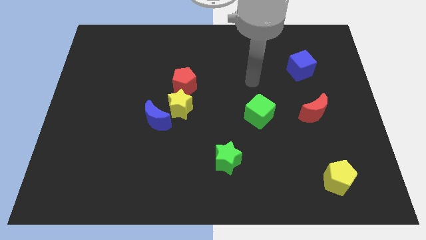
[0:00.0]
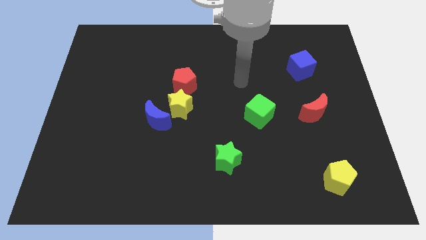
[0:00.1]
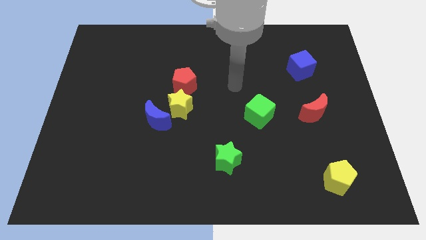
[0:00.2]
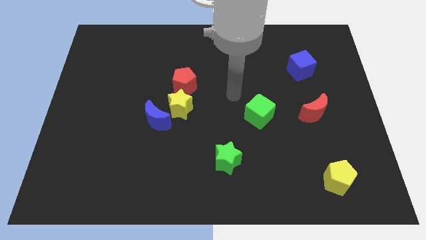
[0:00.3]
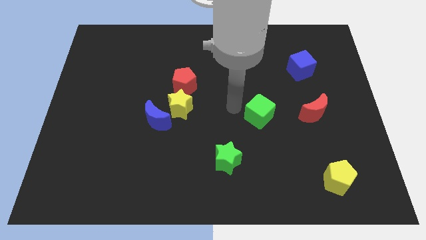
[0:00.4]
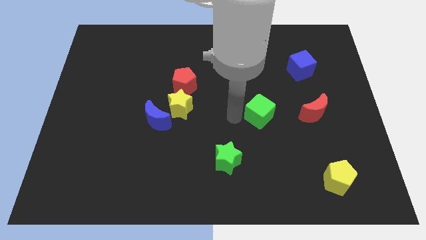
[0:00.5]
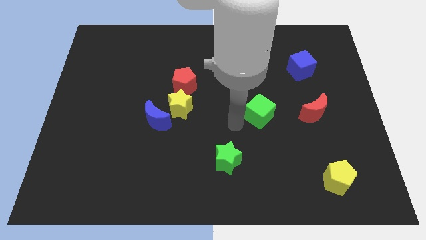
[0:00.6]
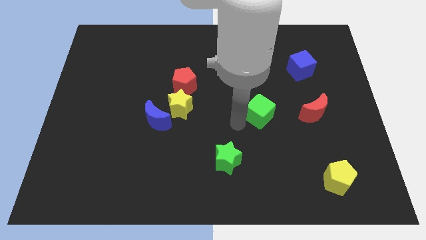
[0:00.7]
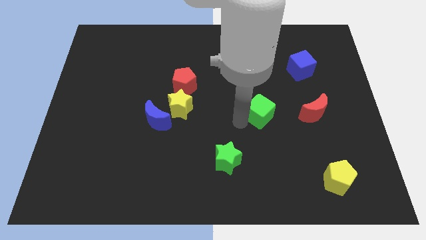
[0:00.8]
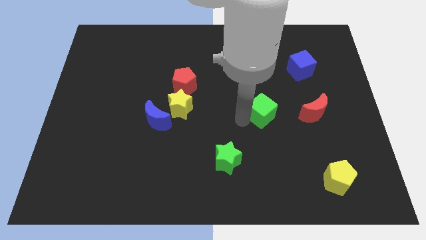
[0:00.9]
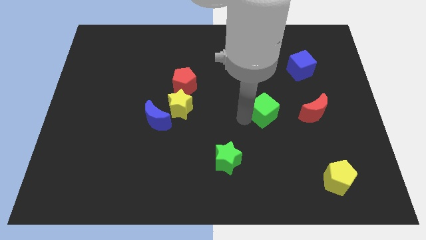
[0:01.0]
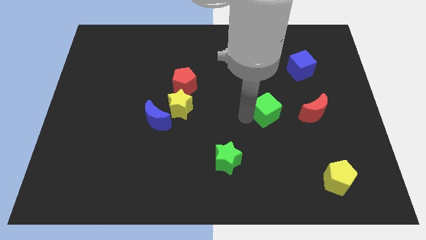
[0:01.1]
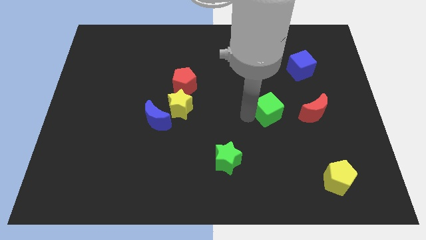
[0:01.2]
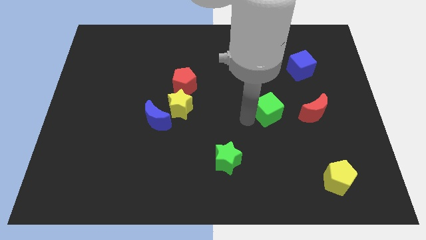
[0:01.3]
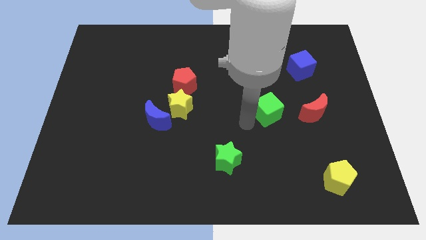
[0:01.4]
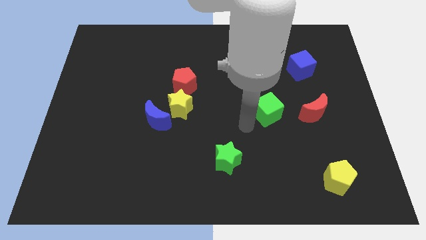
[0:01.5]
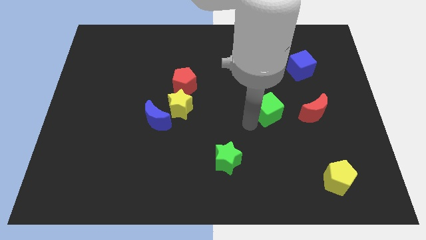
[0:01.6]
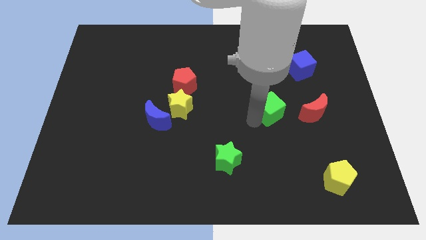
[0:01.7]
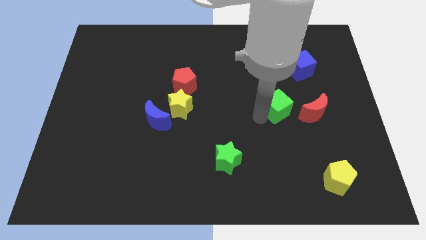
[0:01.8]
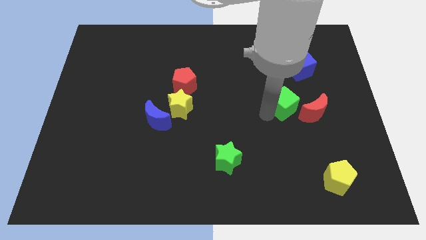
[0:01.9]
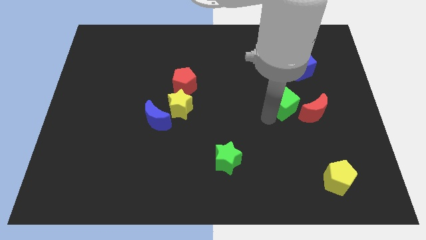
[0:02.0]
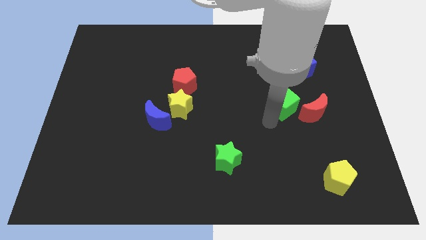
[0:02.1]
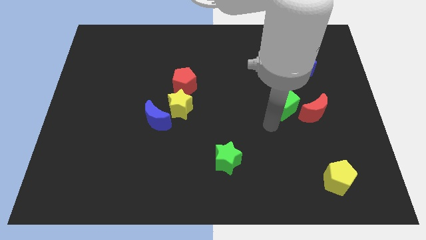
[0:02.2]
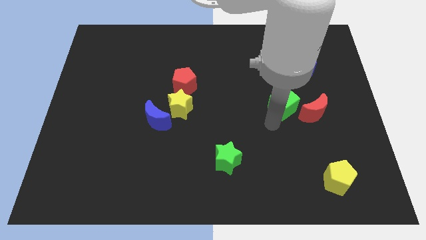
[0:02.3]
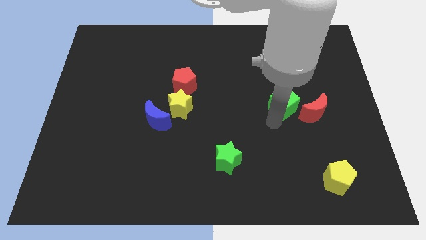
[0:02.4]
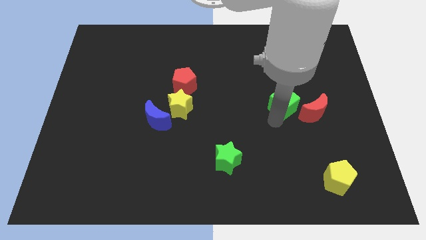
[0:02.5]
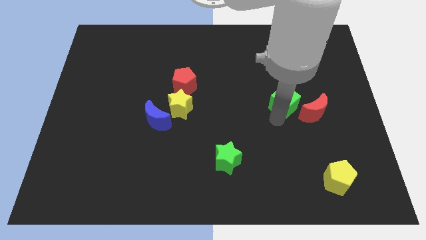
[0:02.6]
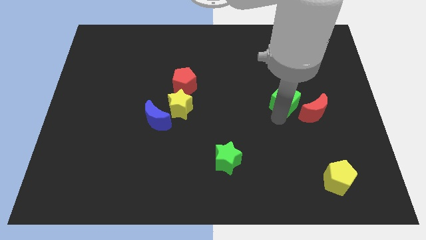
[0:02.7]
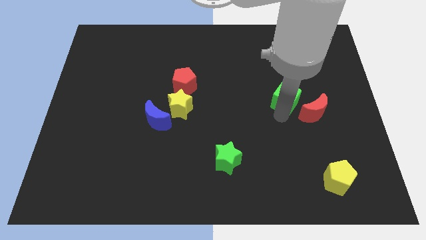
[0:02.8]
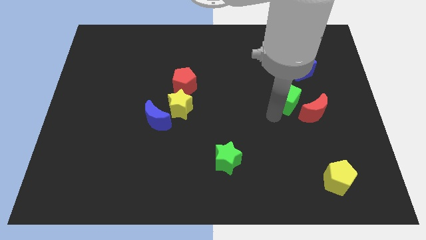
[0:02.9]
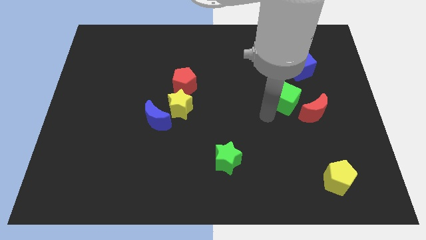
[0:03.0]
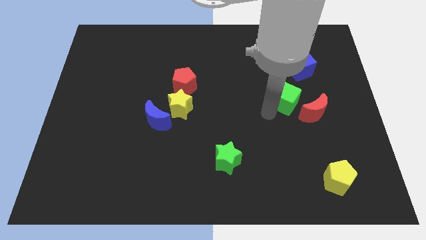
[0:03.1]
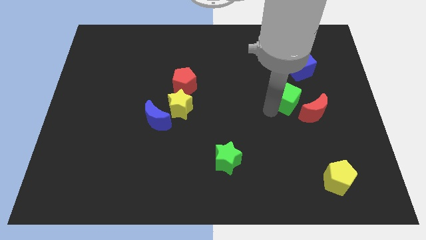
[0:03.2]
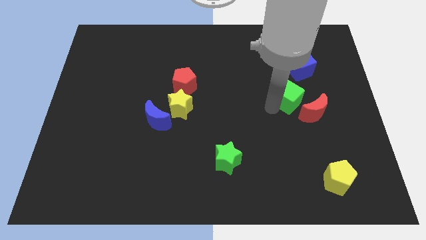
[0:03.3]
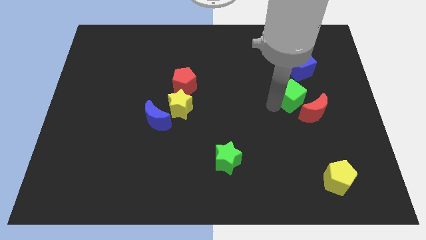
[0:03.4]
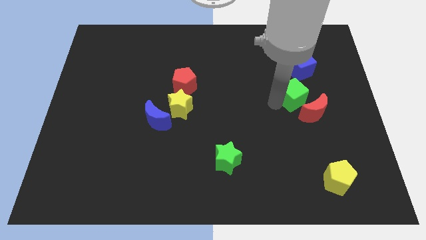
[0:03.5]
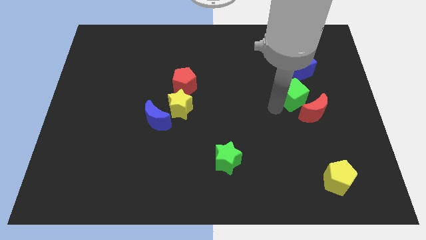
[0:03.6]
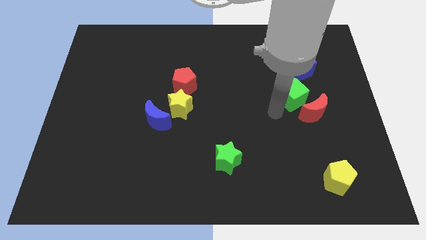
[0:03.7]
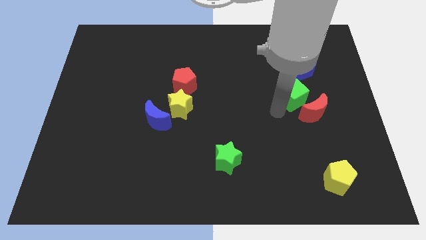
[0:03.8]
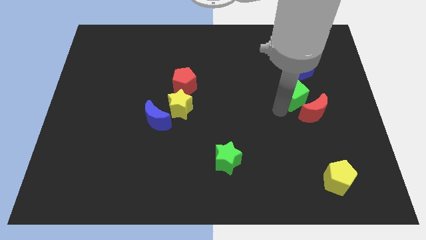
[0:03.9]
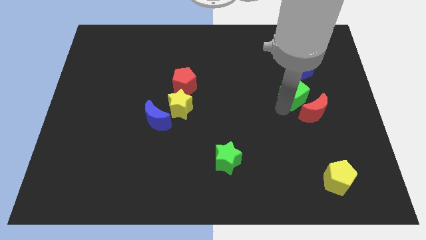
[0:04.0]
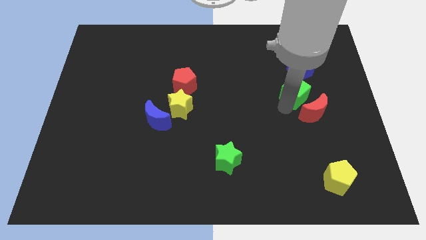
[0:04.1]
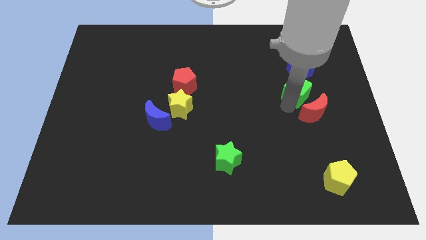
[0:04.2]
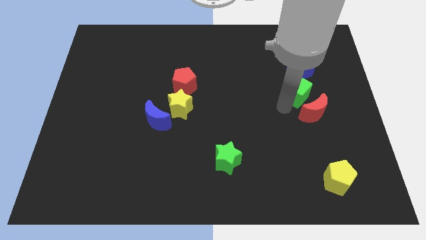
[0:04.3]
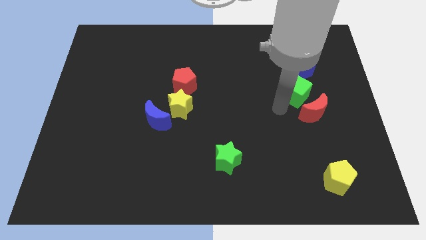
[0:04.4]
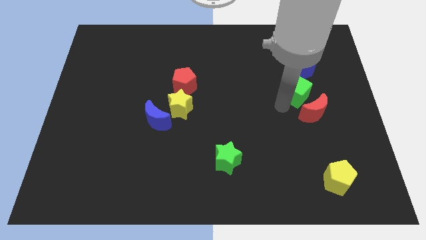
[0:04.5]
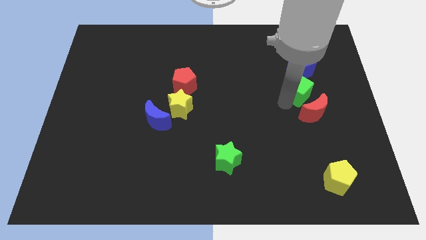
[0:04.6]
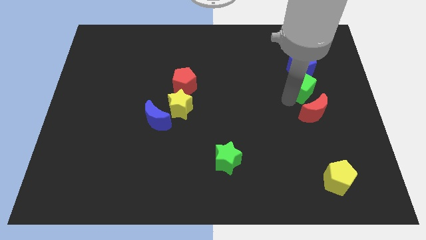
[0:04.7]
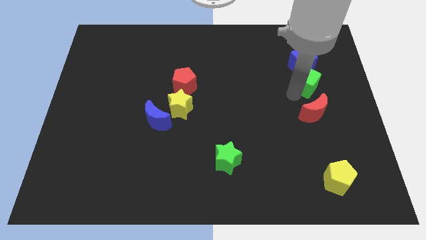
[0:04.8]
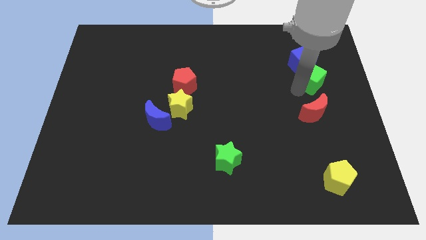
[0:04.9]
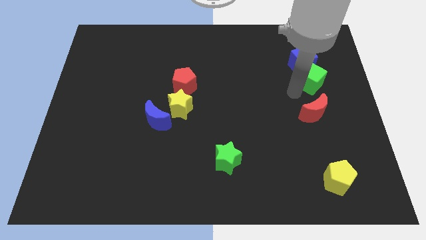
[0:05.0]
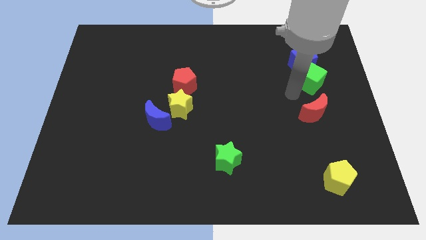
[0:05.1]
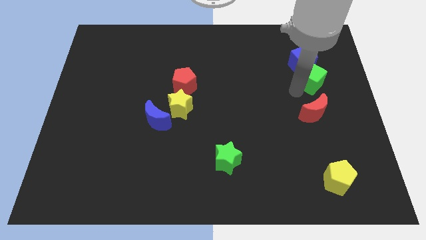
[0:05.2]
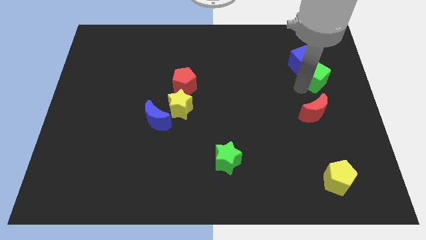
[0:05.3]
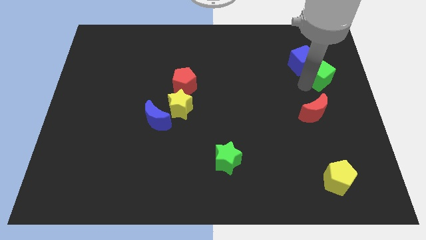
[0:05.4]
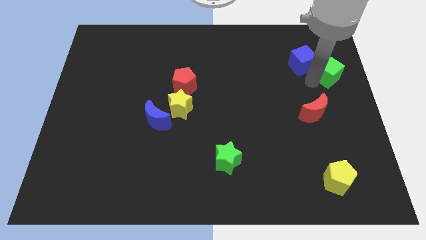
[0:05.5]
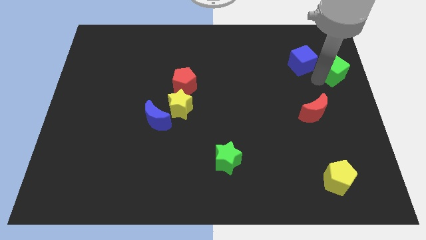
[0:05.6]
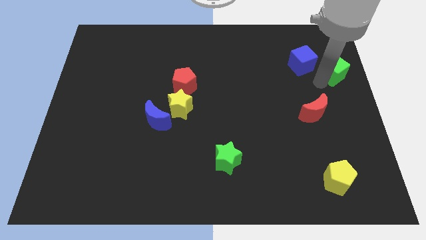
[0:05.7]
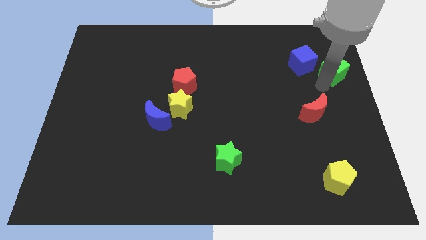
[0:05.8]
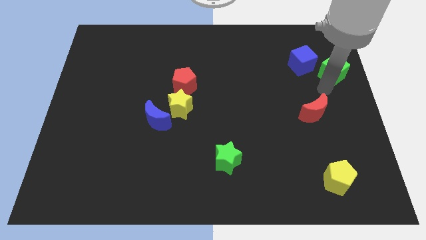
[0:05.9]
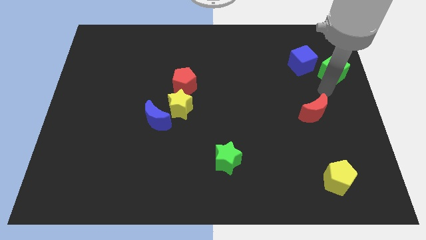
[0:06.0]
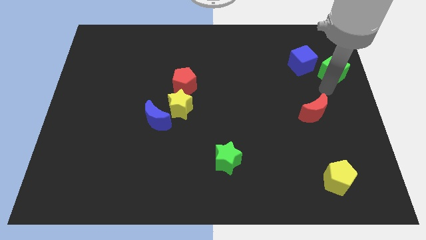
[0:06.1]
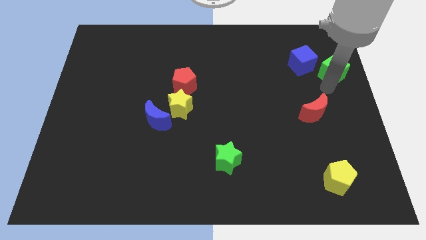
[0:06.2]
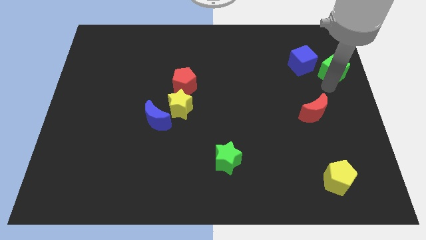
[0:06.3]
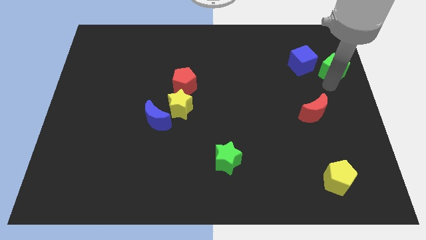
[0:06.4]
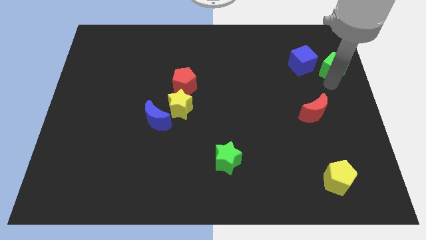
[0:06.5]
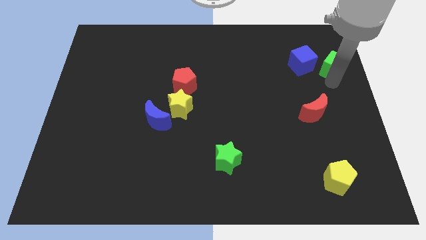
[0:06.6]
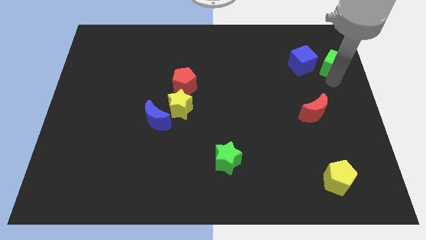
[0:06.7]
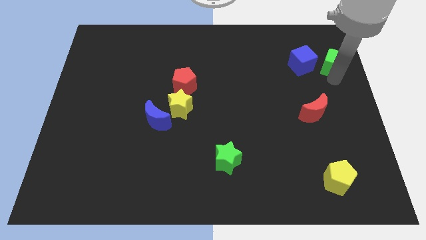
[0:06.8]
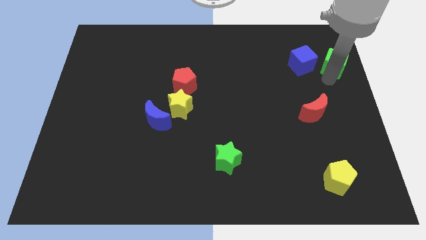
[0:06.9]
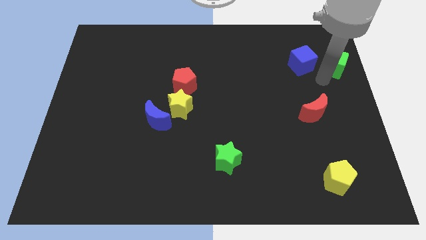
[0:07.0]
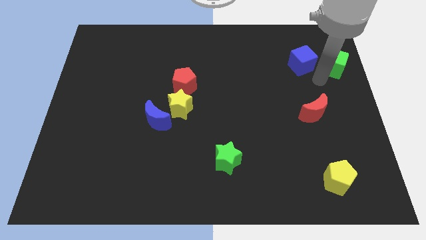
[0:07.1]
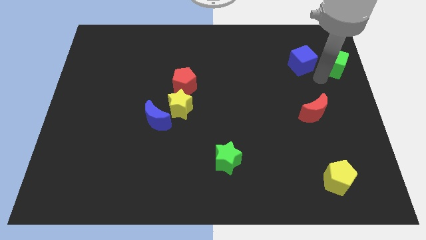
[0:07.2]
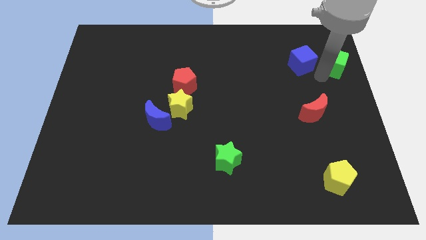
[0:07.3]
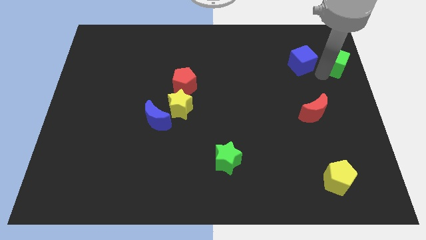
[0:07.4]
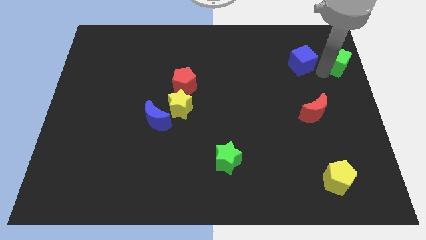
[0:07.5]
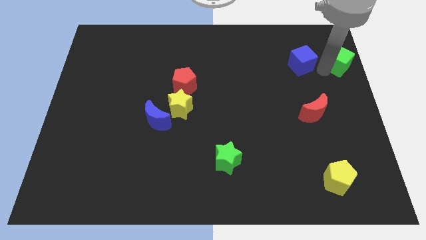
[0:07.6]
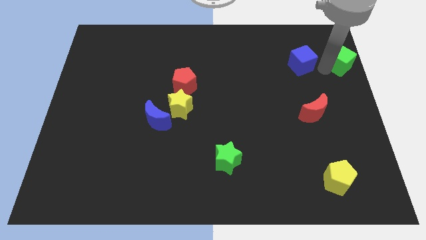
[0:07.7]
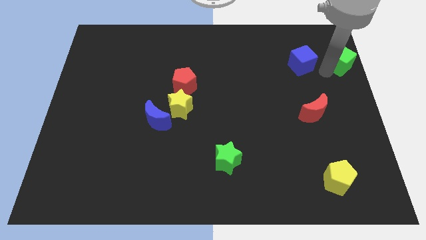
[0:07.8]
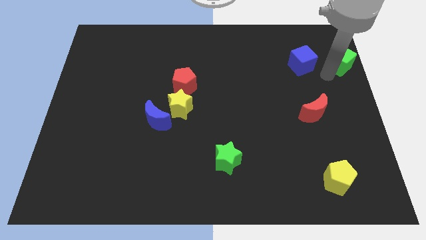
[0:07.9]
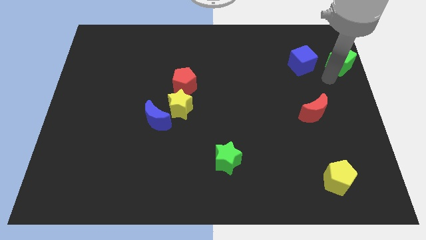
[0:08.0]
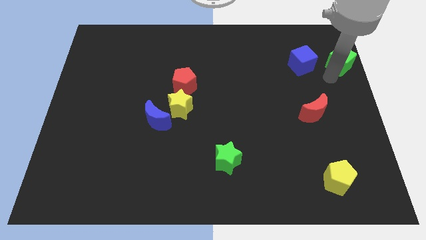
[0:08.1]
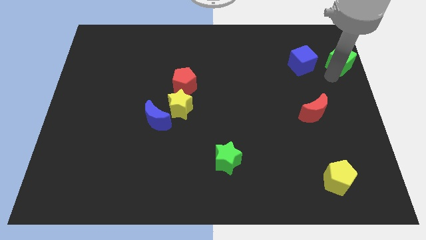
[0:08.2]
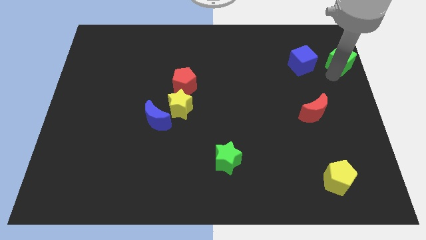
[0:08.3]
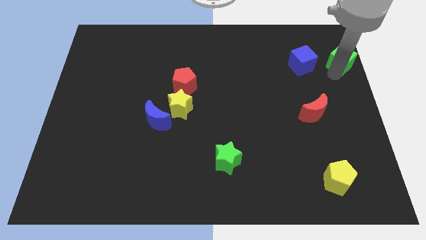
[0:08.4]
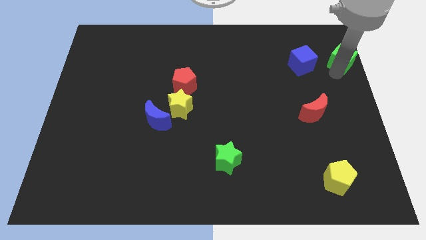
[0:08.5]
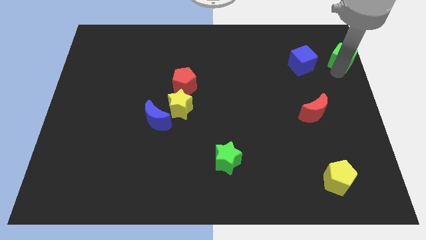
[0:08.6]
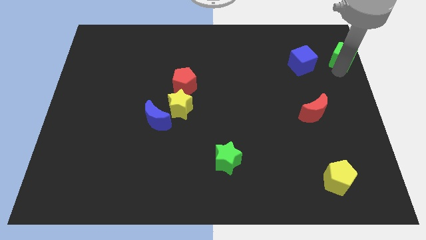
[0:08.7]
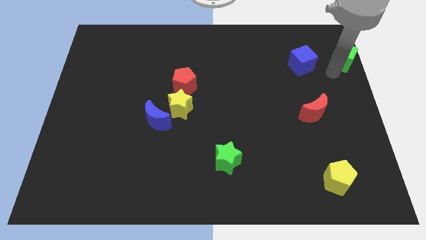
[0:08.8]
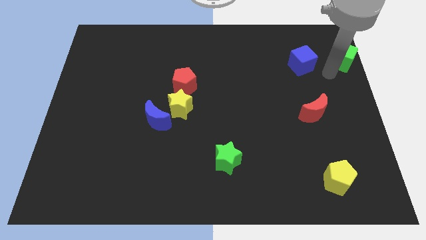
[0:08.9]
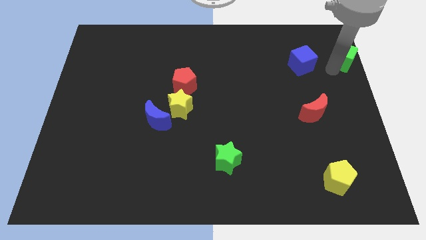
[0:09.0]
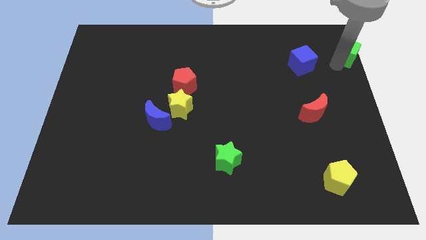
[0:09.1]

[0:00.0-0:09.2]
slide the green cube to the top right
